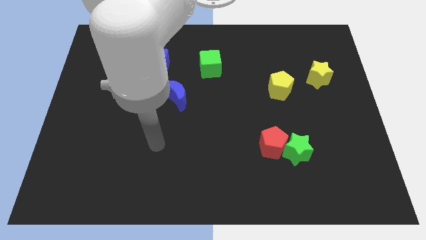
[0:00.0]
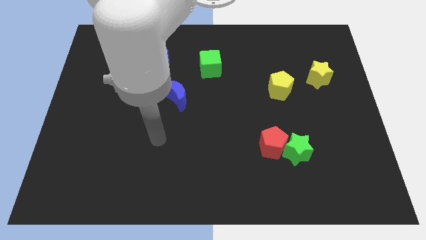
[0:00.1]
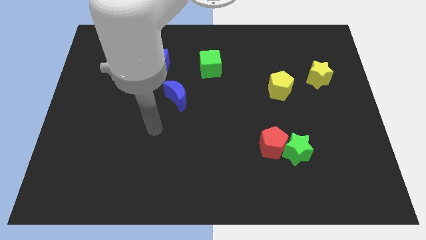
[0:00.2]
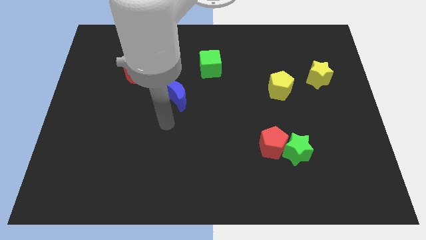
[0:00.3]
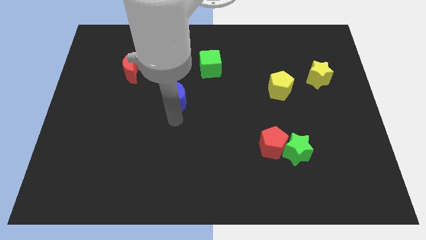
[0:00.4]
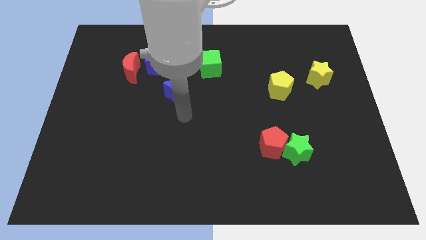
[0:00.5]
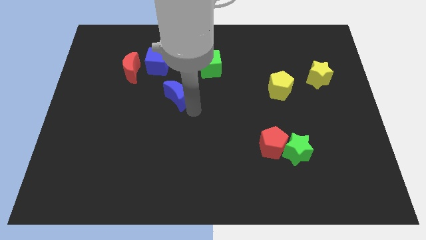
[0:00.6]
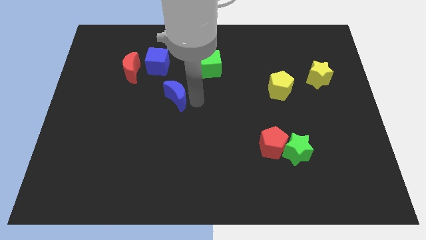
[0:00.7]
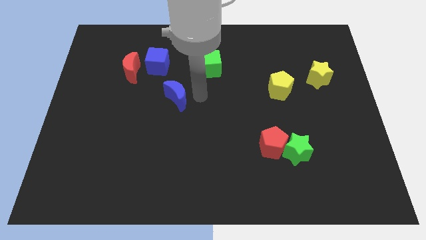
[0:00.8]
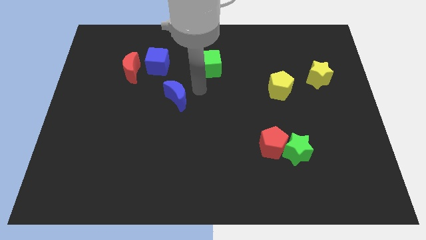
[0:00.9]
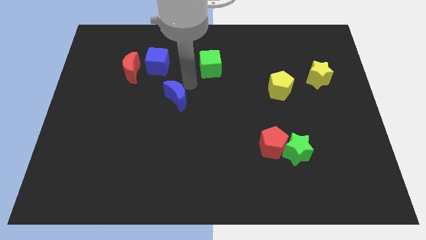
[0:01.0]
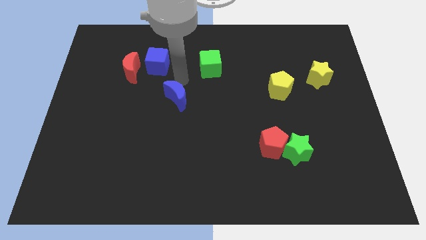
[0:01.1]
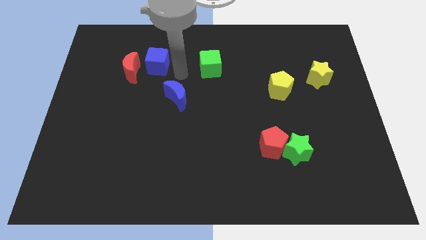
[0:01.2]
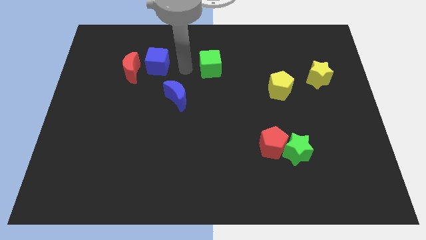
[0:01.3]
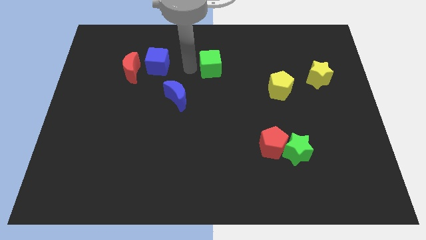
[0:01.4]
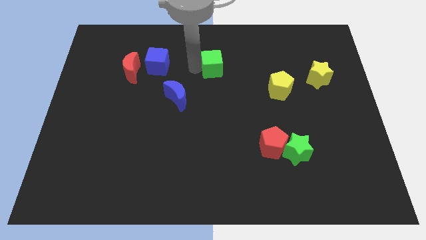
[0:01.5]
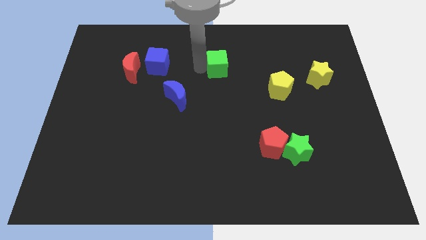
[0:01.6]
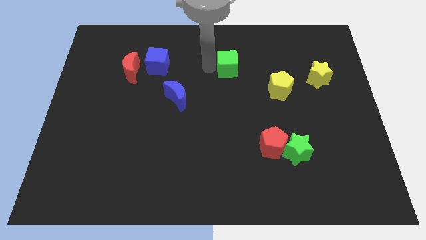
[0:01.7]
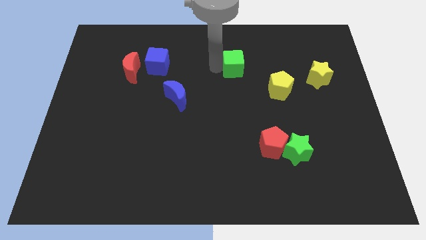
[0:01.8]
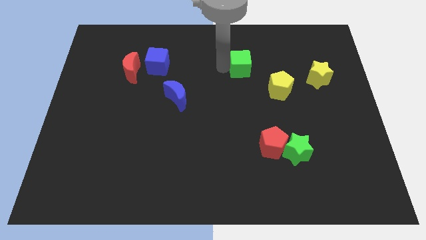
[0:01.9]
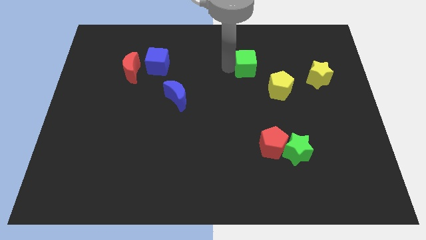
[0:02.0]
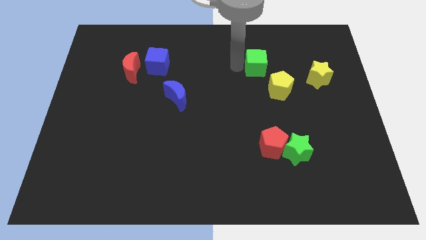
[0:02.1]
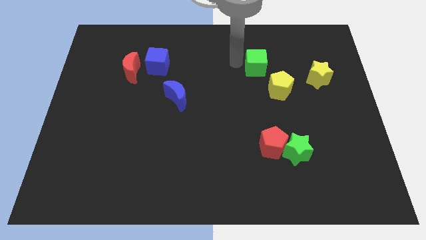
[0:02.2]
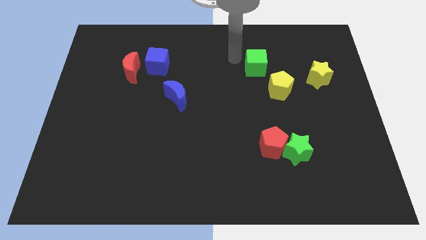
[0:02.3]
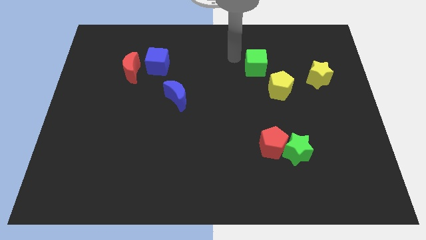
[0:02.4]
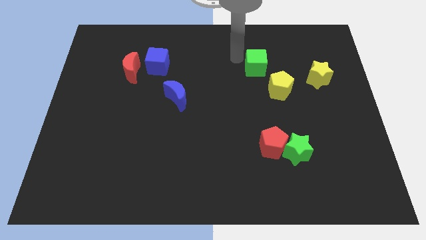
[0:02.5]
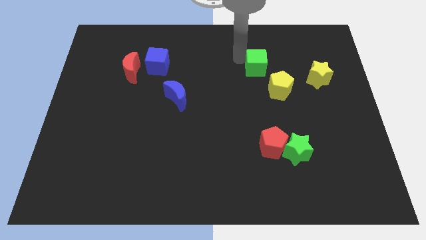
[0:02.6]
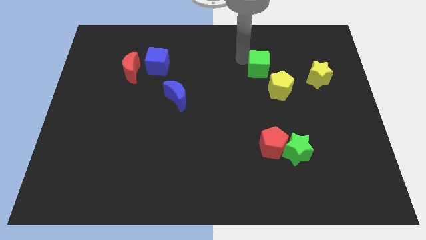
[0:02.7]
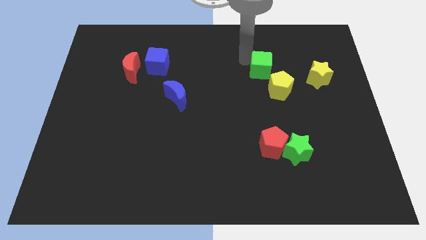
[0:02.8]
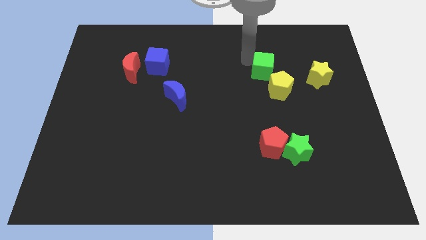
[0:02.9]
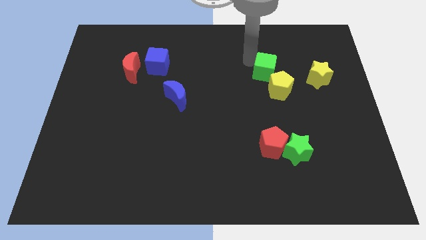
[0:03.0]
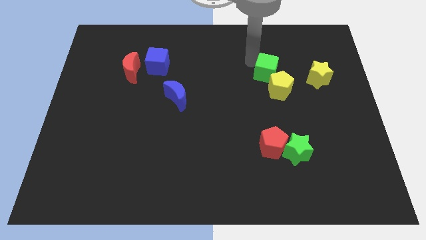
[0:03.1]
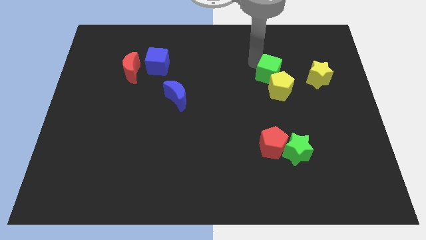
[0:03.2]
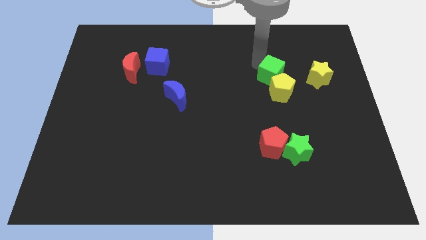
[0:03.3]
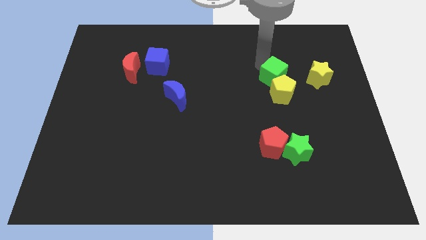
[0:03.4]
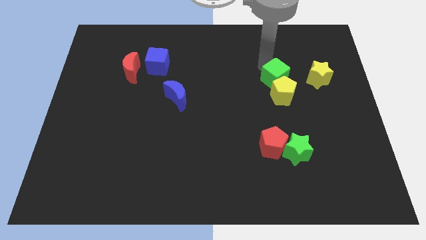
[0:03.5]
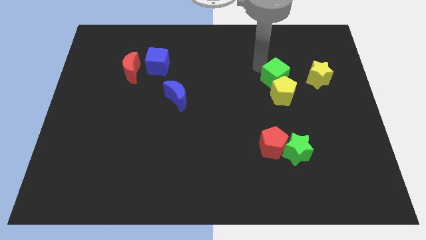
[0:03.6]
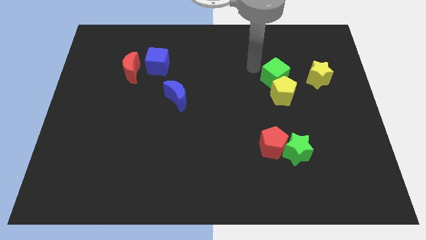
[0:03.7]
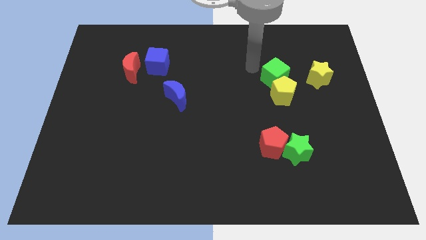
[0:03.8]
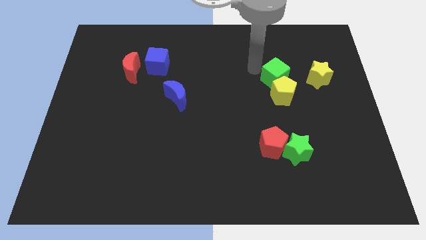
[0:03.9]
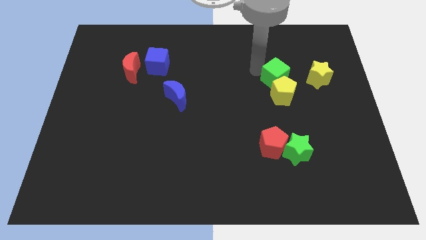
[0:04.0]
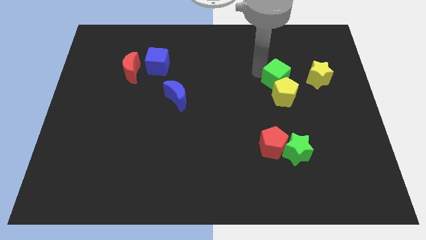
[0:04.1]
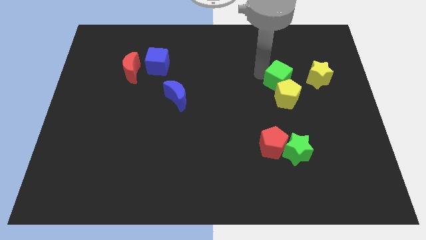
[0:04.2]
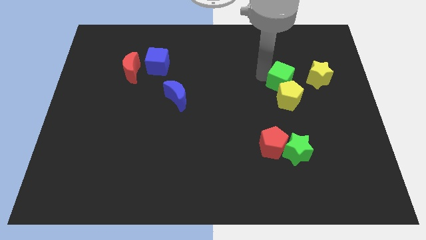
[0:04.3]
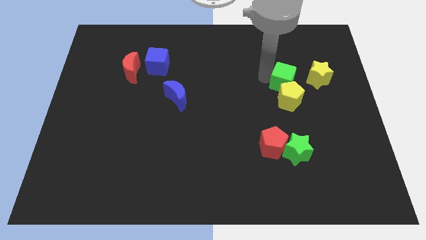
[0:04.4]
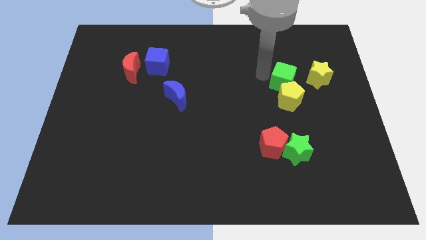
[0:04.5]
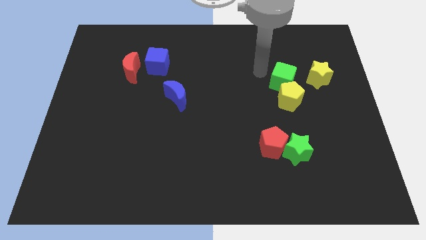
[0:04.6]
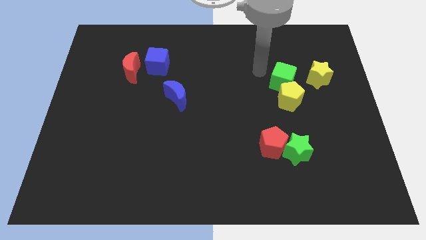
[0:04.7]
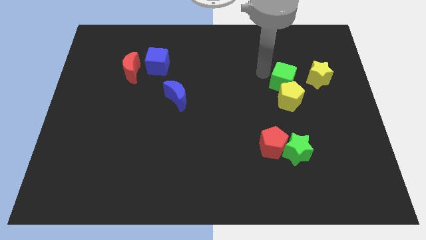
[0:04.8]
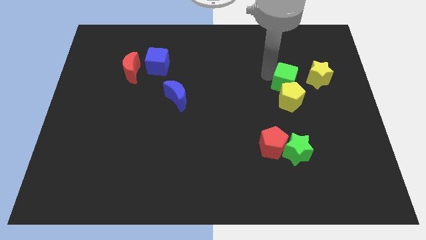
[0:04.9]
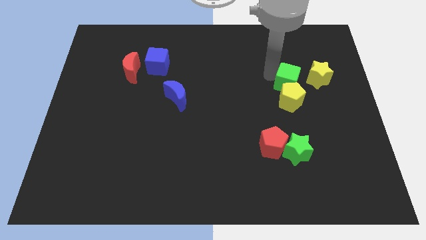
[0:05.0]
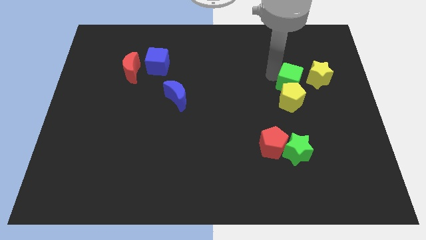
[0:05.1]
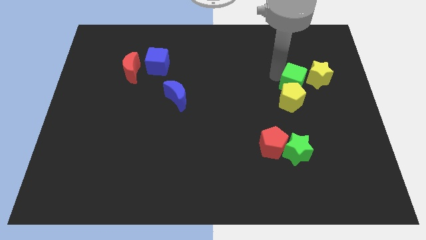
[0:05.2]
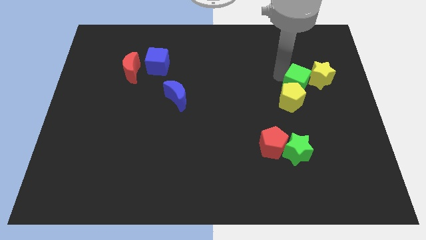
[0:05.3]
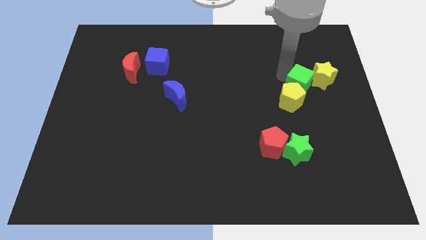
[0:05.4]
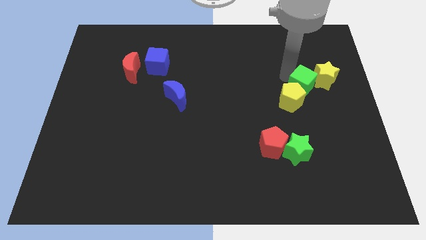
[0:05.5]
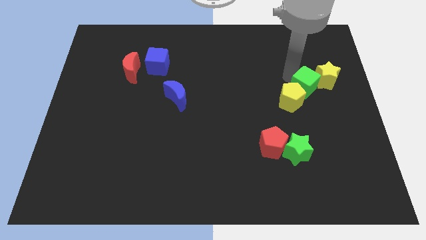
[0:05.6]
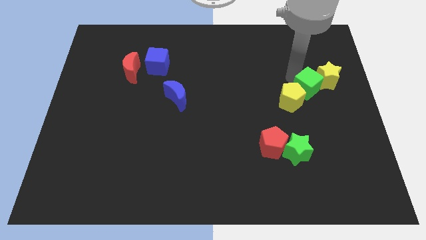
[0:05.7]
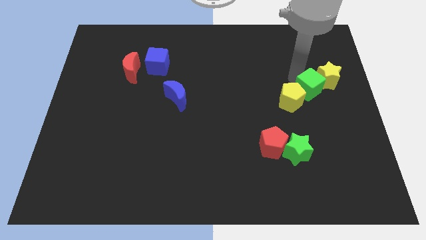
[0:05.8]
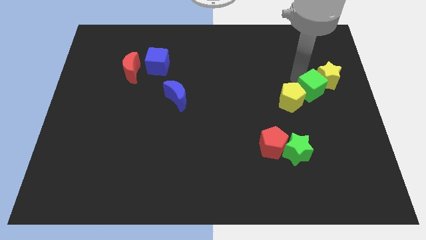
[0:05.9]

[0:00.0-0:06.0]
slide the green cube below the yellow star

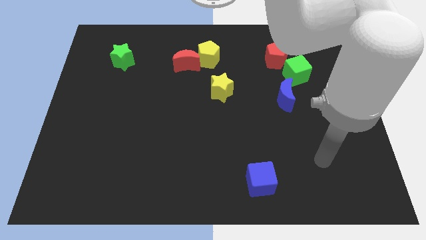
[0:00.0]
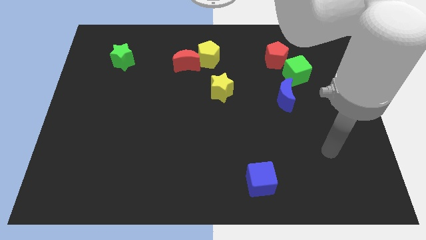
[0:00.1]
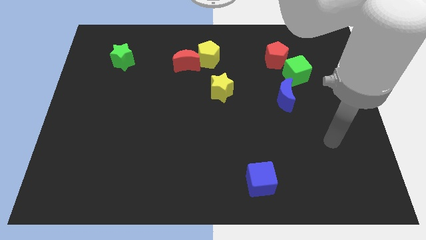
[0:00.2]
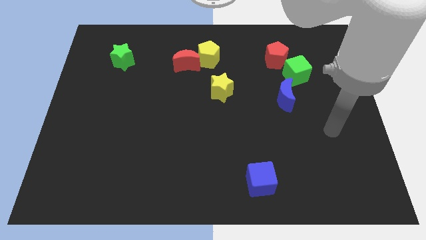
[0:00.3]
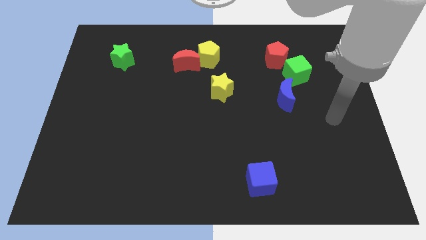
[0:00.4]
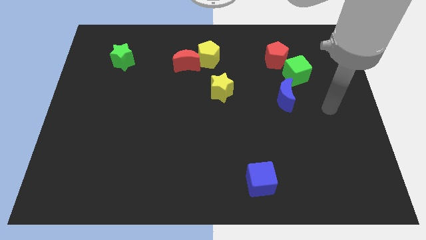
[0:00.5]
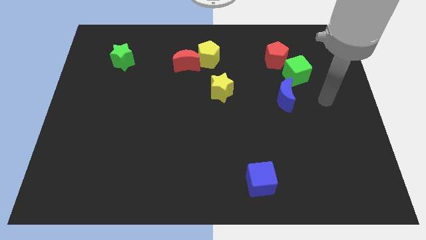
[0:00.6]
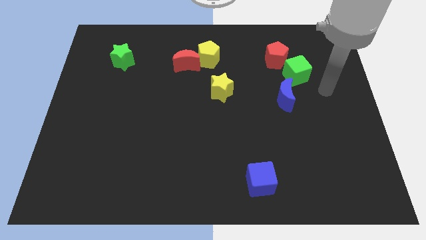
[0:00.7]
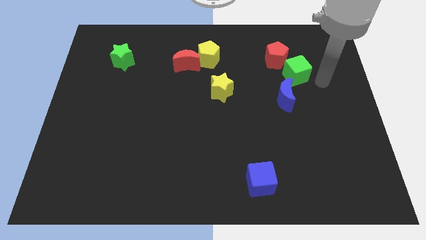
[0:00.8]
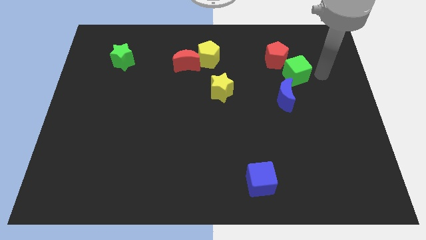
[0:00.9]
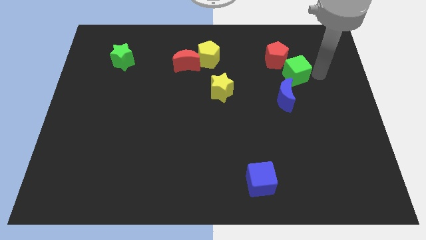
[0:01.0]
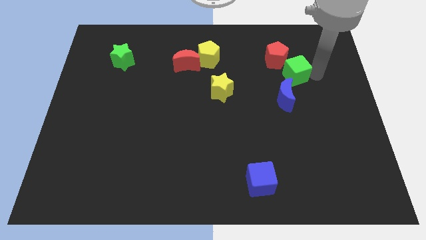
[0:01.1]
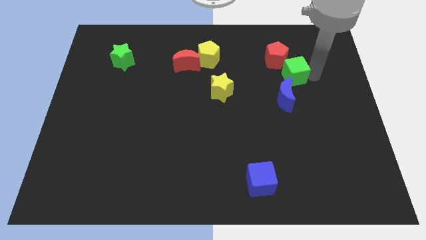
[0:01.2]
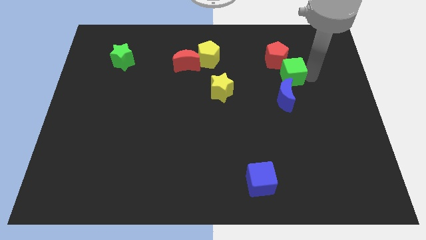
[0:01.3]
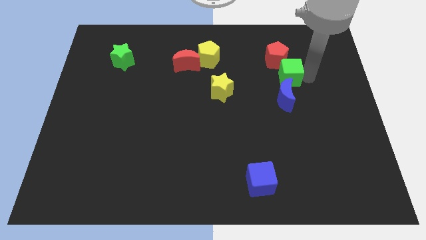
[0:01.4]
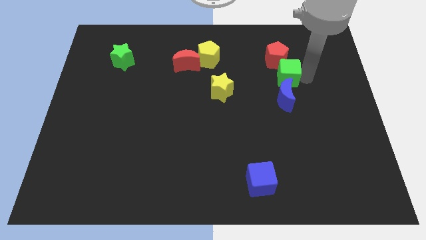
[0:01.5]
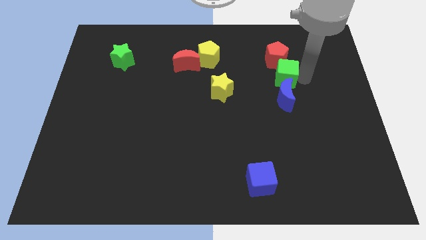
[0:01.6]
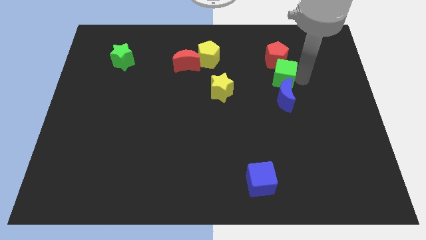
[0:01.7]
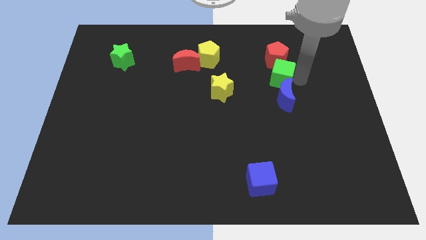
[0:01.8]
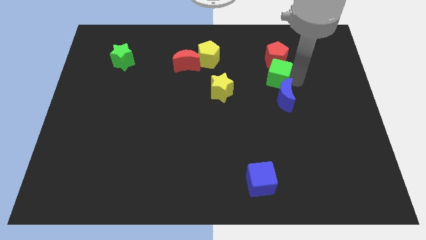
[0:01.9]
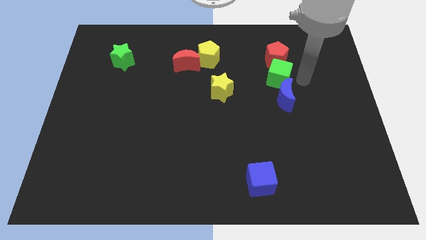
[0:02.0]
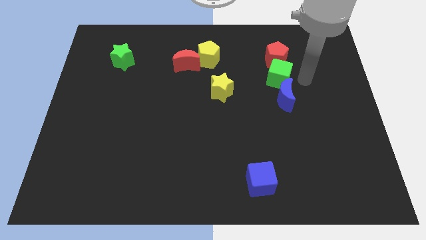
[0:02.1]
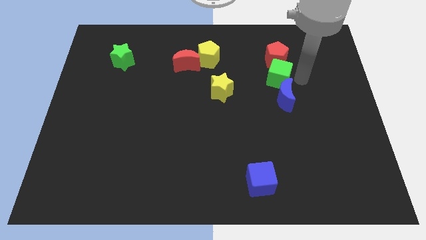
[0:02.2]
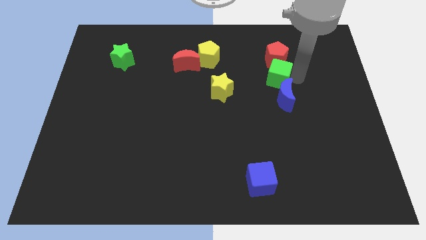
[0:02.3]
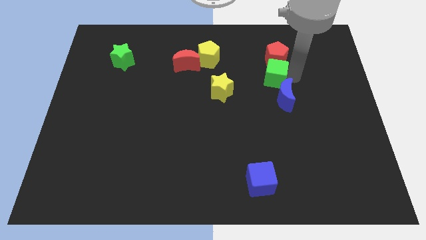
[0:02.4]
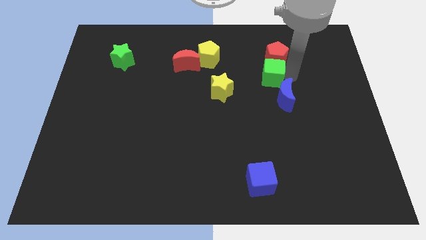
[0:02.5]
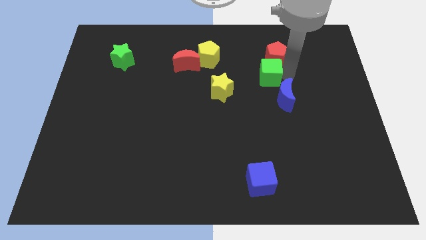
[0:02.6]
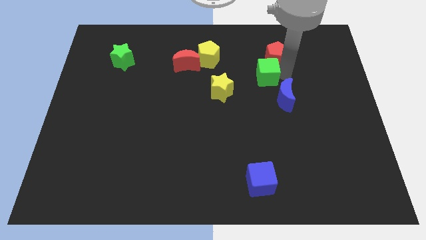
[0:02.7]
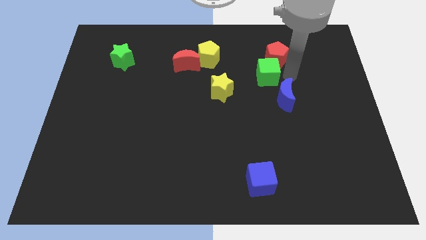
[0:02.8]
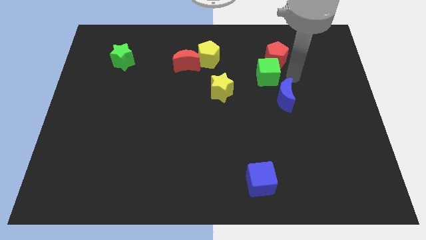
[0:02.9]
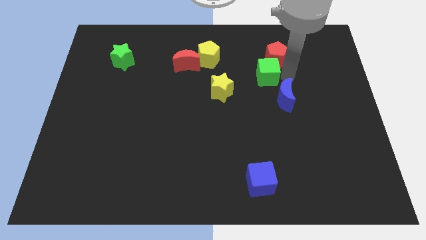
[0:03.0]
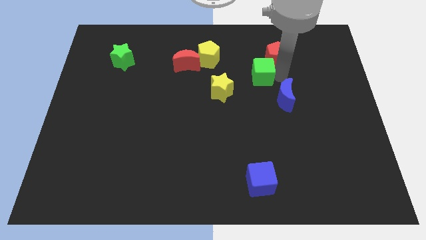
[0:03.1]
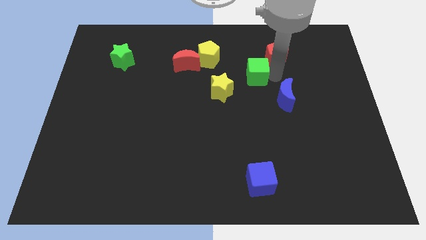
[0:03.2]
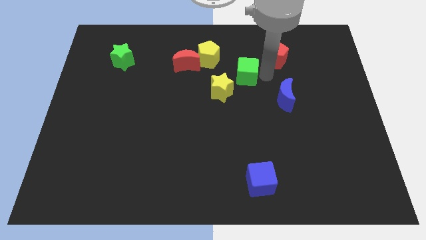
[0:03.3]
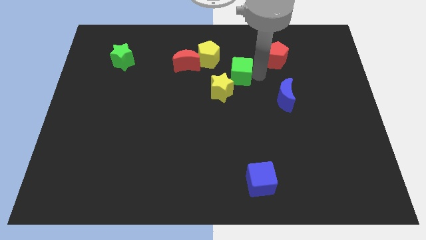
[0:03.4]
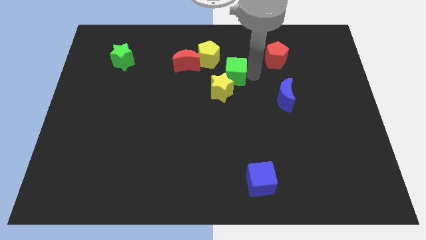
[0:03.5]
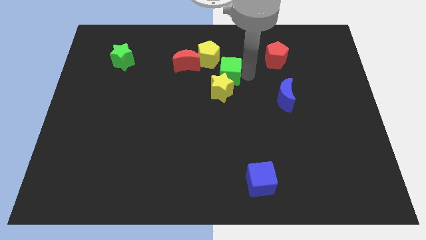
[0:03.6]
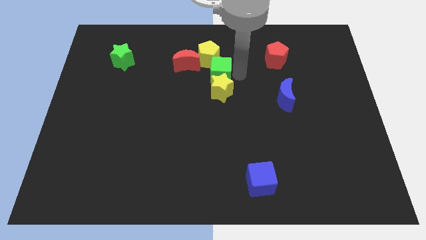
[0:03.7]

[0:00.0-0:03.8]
push the green cube diagonally up and to the left of the yellow star
